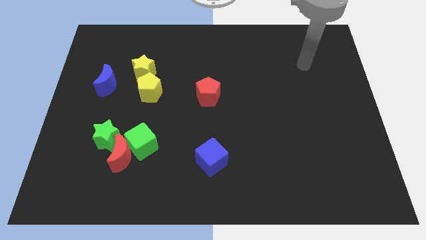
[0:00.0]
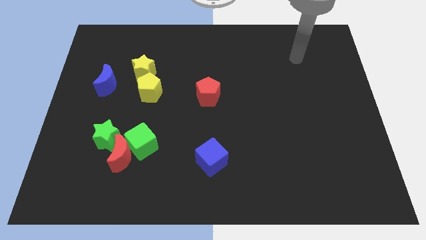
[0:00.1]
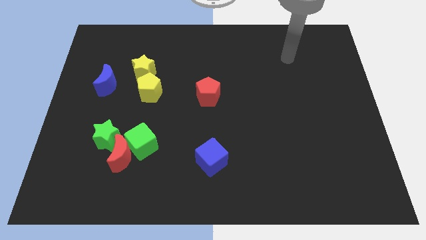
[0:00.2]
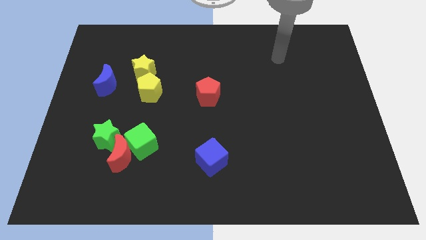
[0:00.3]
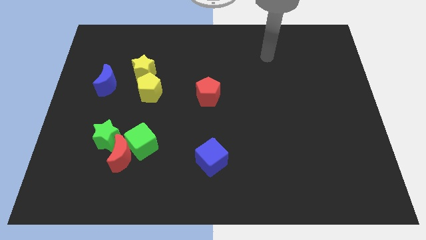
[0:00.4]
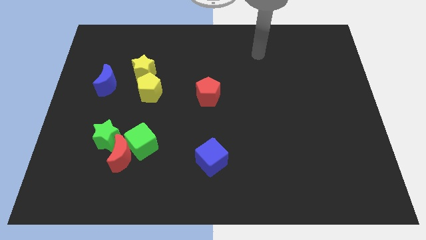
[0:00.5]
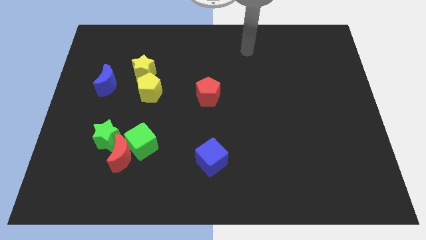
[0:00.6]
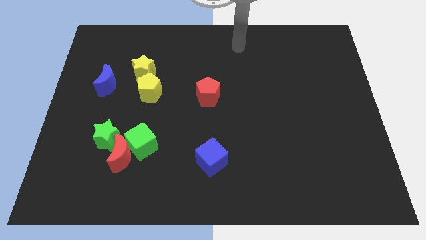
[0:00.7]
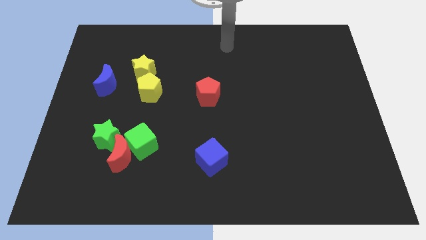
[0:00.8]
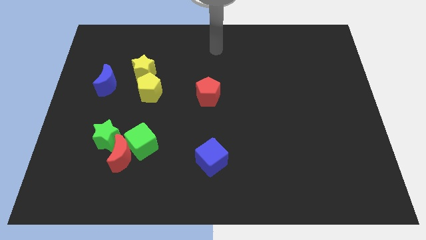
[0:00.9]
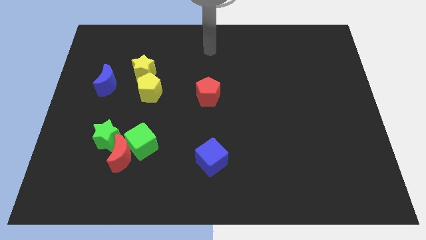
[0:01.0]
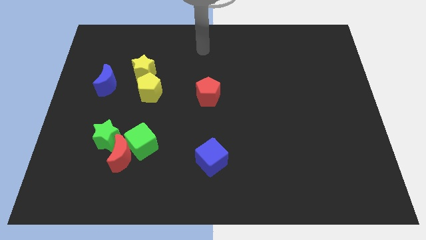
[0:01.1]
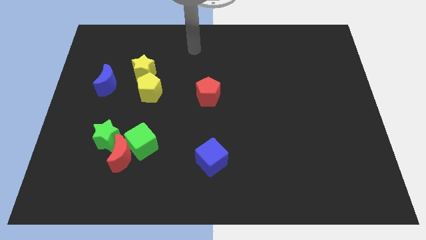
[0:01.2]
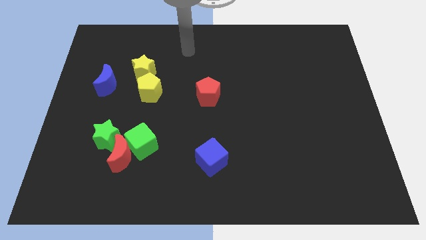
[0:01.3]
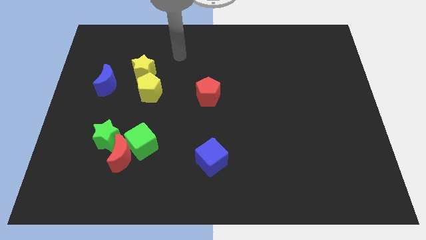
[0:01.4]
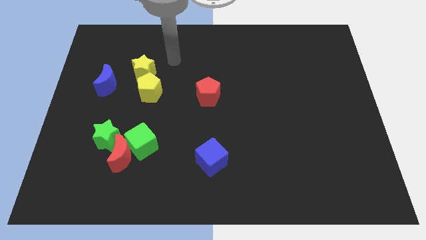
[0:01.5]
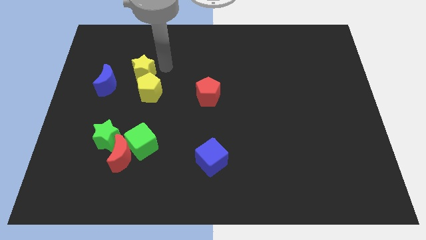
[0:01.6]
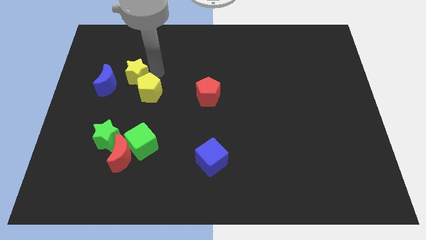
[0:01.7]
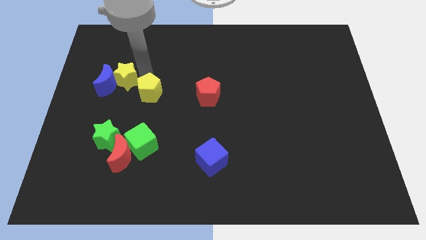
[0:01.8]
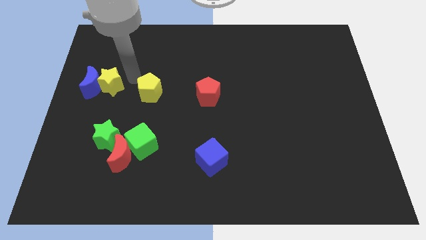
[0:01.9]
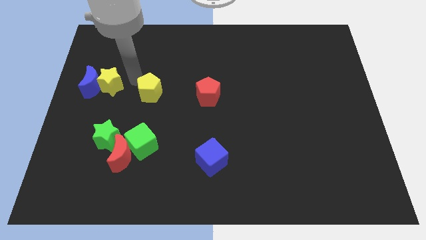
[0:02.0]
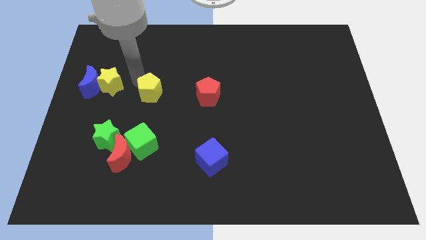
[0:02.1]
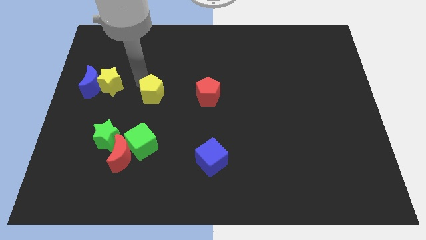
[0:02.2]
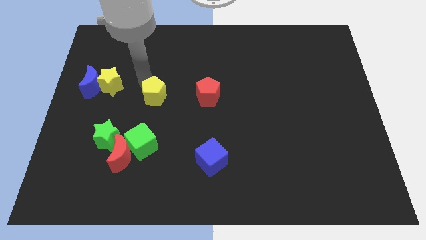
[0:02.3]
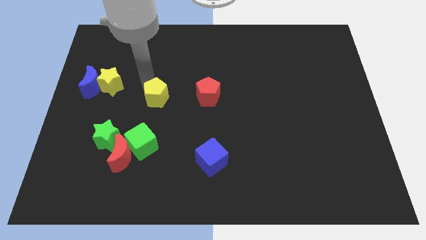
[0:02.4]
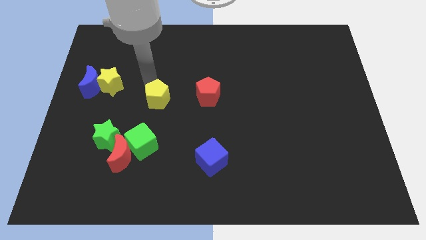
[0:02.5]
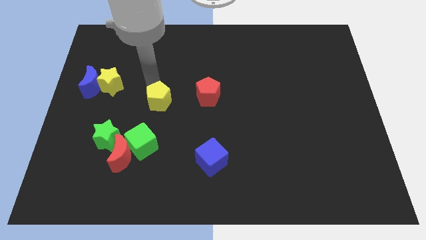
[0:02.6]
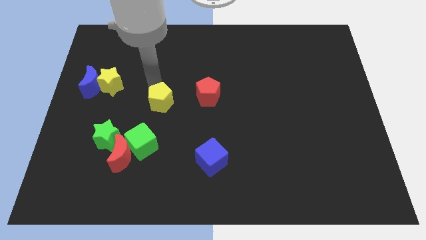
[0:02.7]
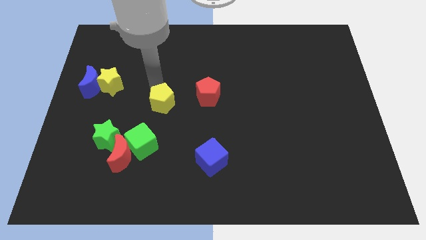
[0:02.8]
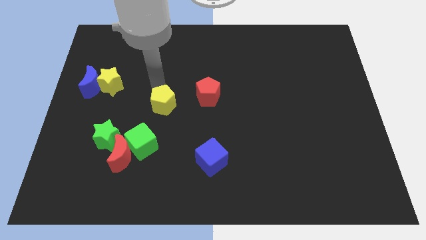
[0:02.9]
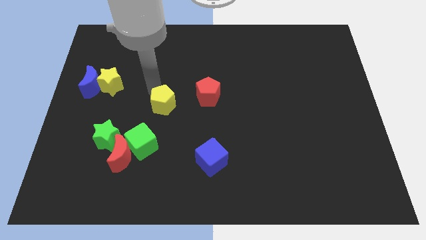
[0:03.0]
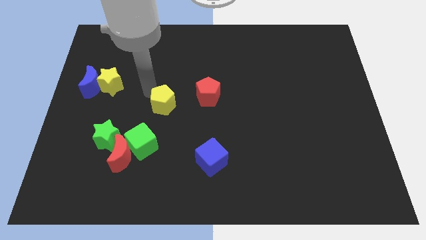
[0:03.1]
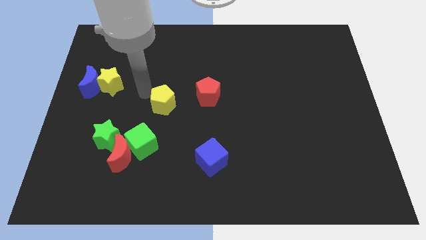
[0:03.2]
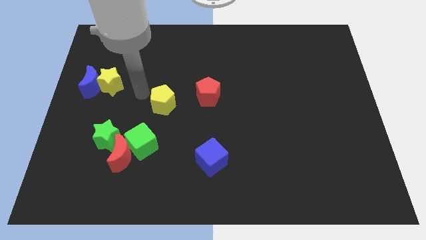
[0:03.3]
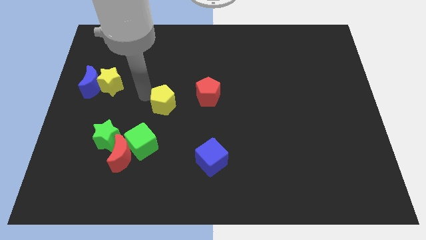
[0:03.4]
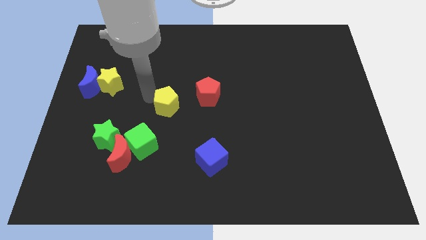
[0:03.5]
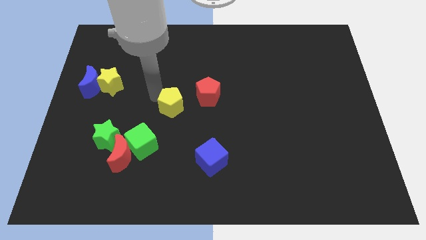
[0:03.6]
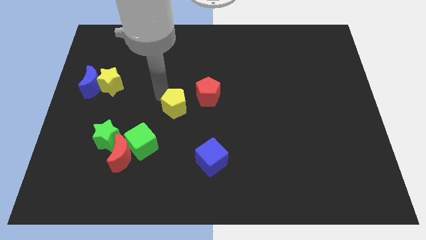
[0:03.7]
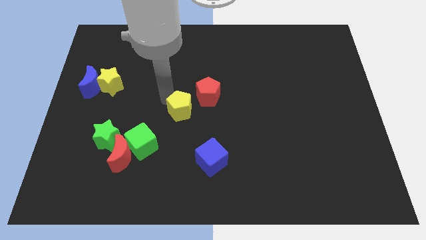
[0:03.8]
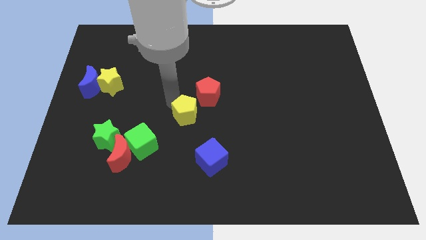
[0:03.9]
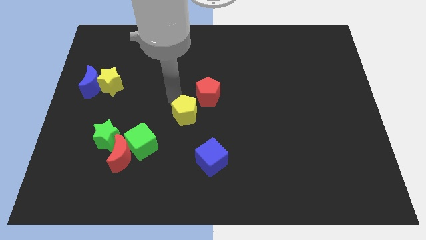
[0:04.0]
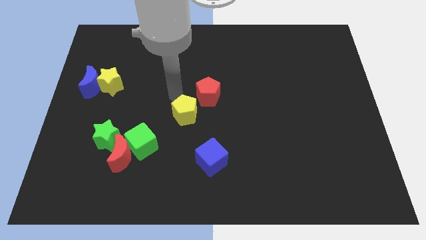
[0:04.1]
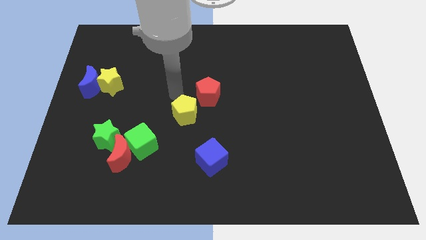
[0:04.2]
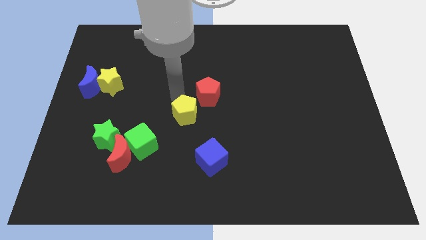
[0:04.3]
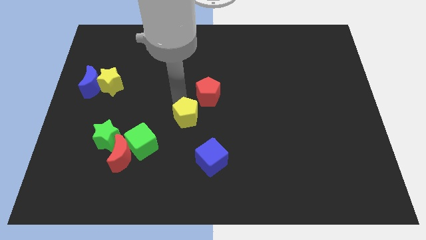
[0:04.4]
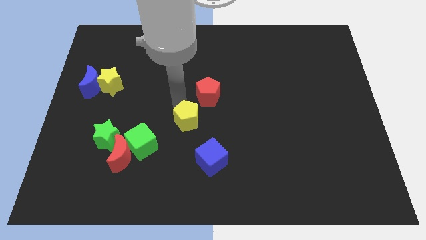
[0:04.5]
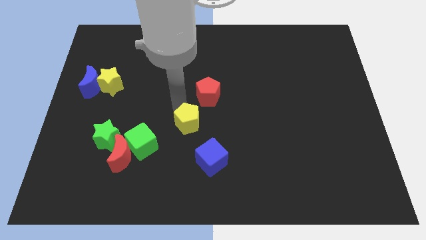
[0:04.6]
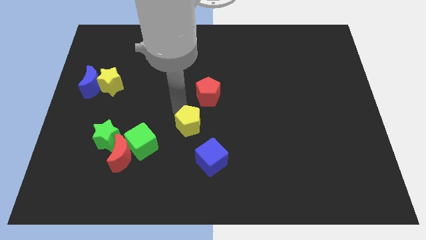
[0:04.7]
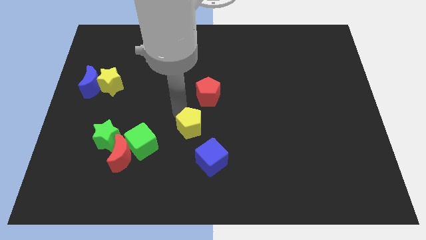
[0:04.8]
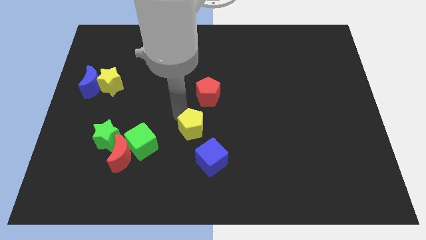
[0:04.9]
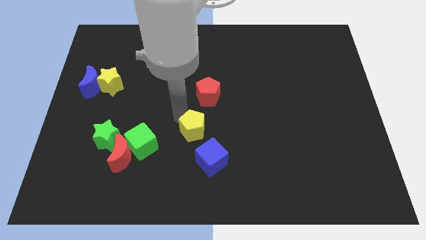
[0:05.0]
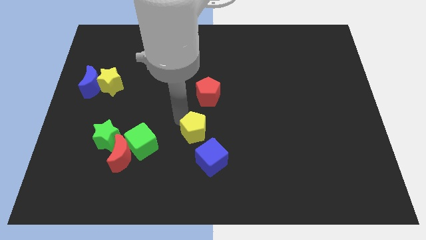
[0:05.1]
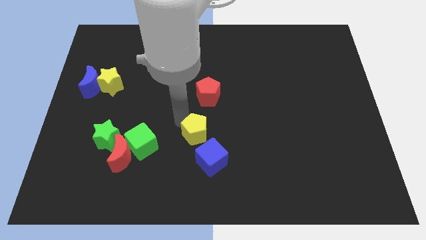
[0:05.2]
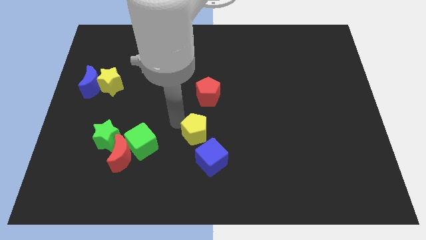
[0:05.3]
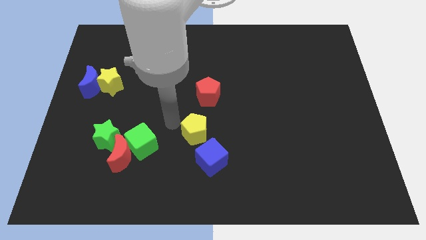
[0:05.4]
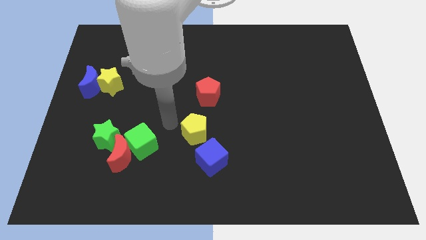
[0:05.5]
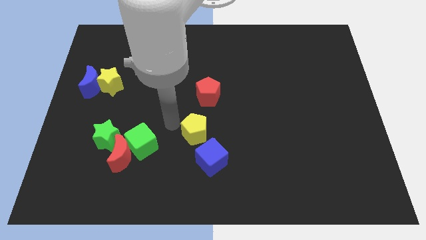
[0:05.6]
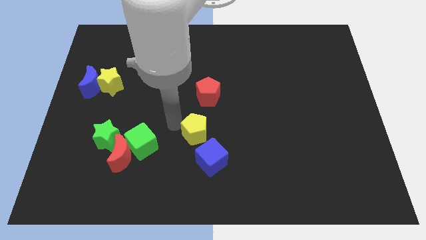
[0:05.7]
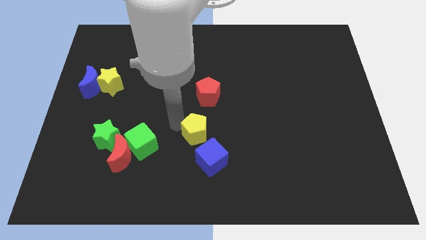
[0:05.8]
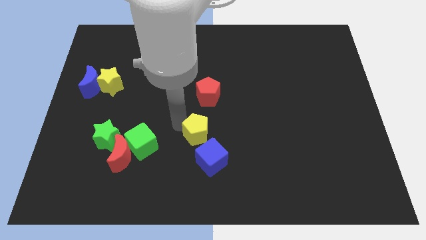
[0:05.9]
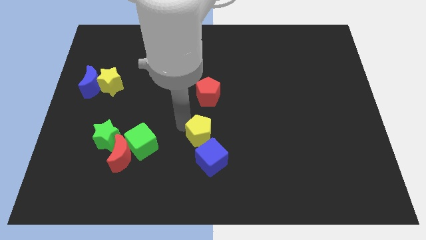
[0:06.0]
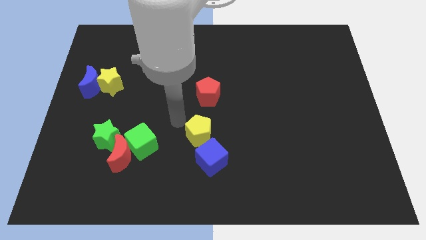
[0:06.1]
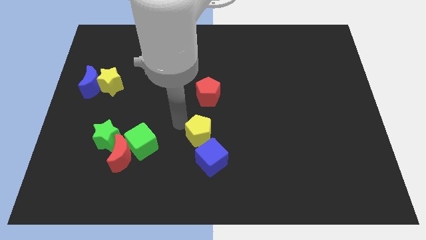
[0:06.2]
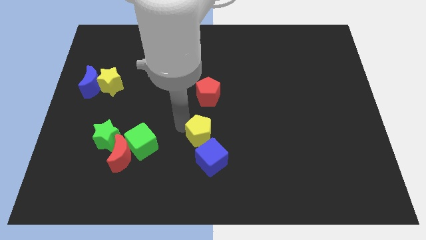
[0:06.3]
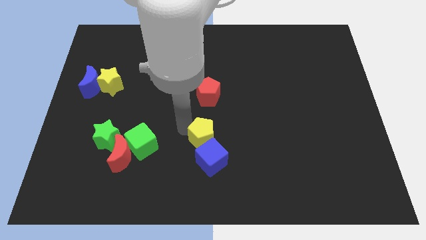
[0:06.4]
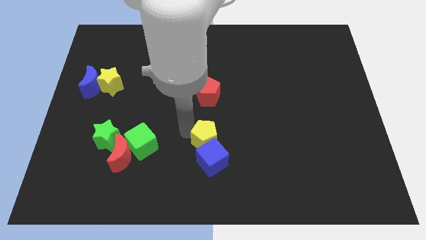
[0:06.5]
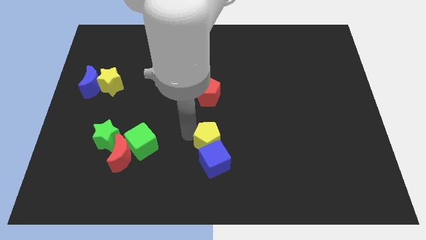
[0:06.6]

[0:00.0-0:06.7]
push the yellow pentagon diagonally down and right

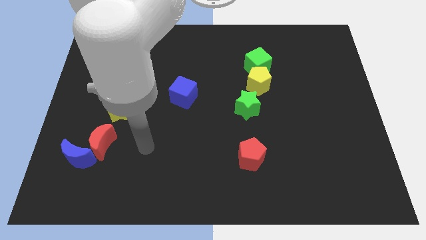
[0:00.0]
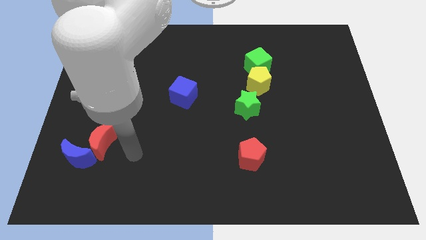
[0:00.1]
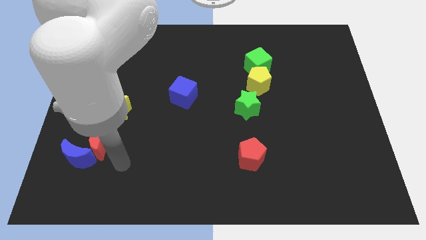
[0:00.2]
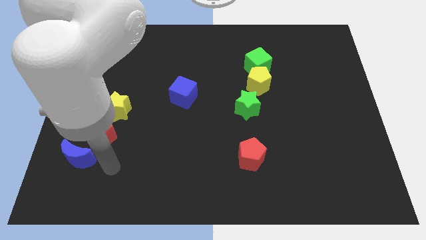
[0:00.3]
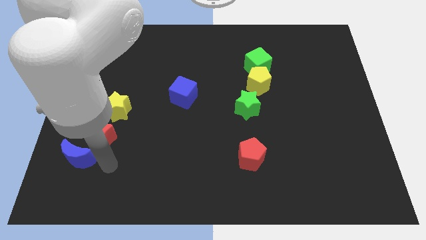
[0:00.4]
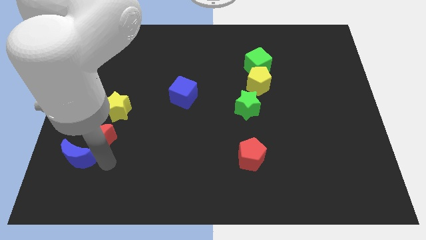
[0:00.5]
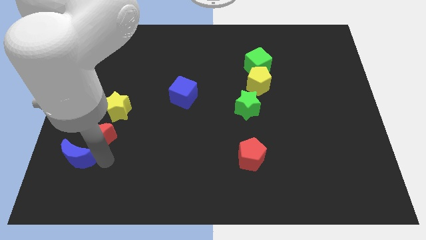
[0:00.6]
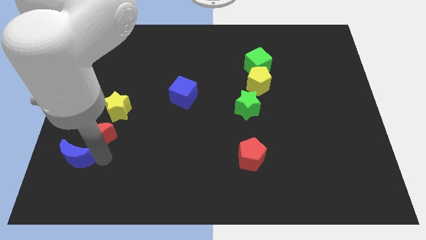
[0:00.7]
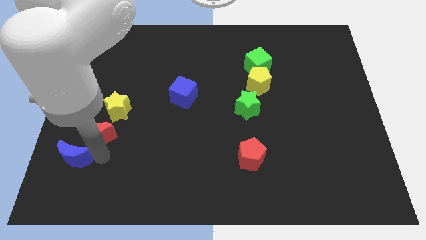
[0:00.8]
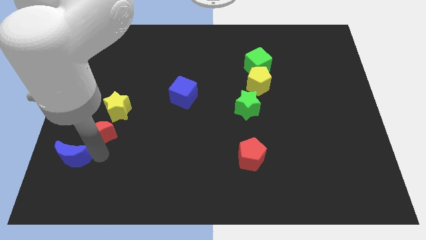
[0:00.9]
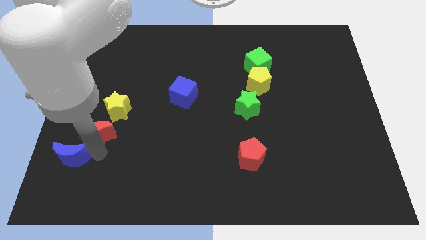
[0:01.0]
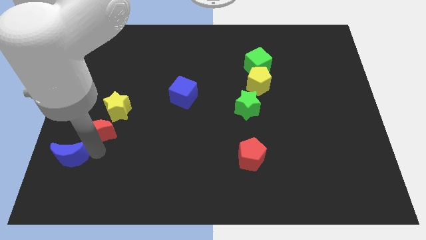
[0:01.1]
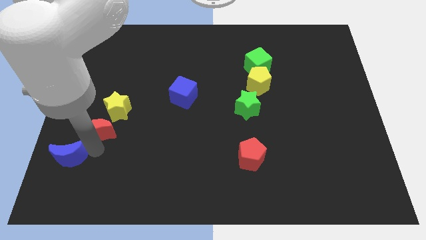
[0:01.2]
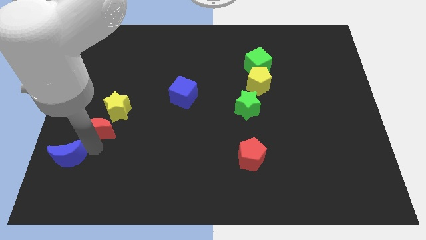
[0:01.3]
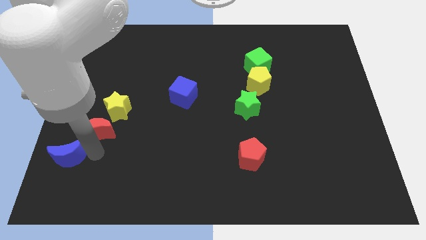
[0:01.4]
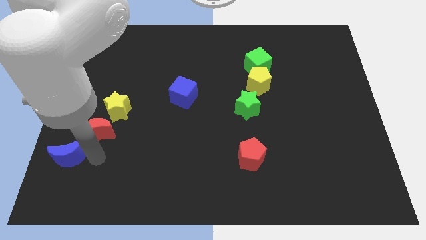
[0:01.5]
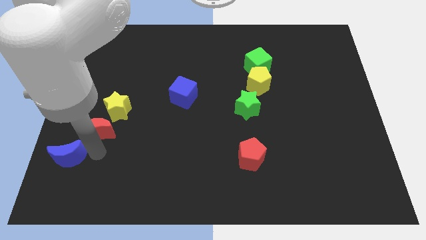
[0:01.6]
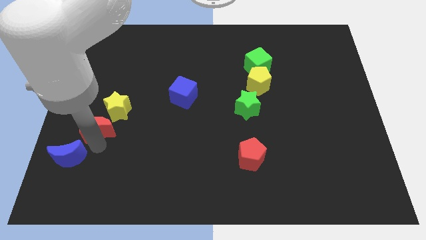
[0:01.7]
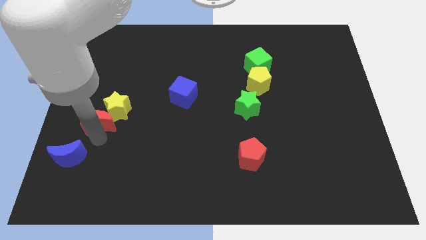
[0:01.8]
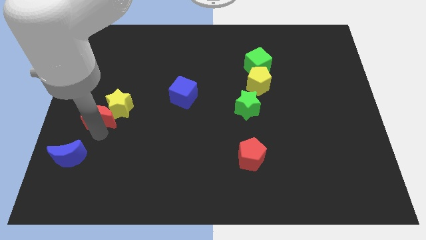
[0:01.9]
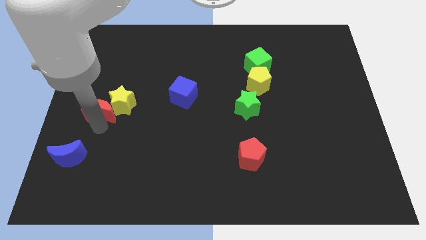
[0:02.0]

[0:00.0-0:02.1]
slightly slide the red moon upwards
